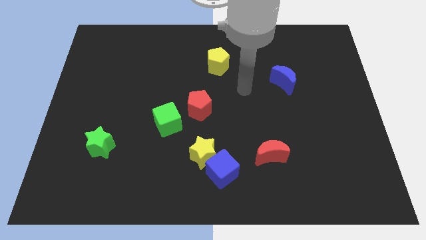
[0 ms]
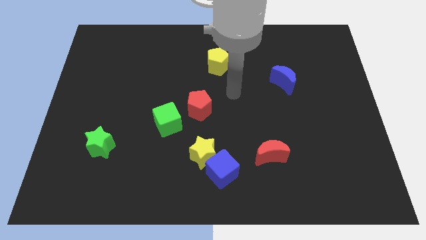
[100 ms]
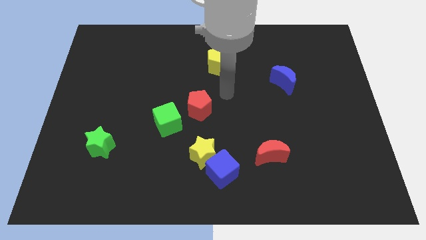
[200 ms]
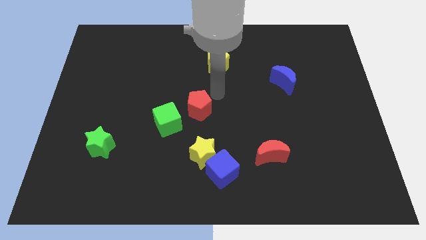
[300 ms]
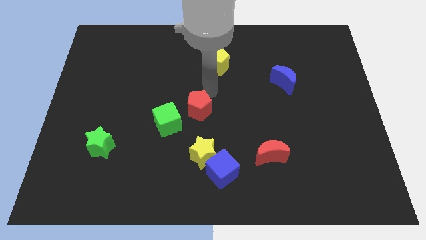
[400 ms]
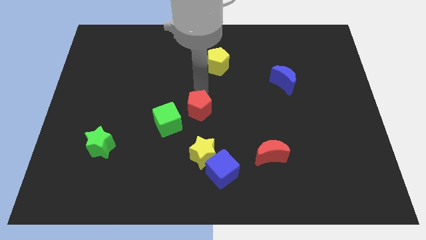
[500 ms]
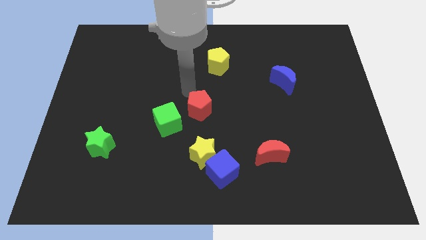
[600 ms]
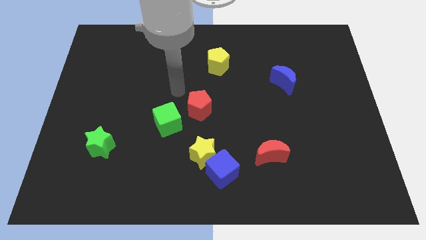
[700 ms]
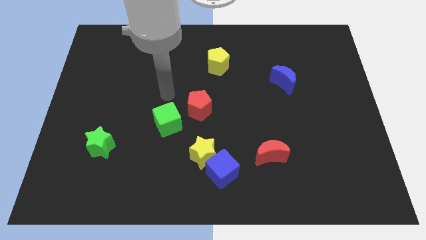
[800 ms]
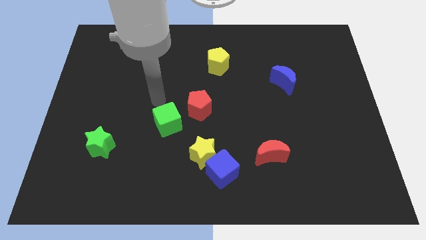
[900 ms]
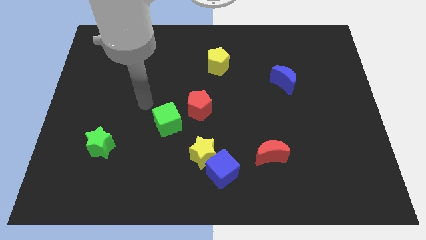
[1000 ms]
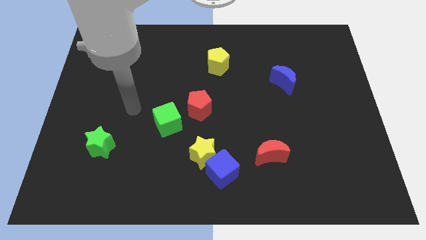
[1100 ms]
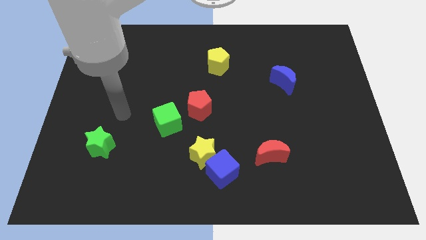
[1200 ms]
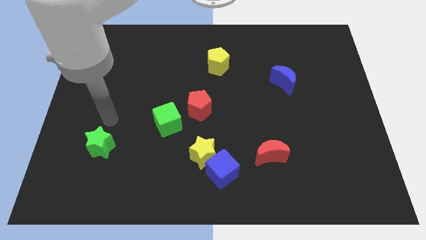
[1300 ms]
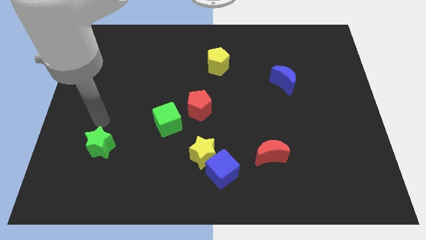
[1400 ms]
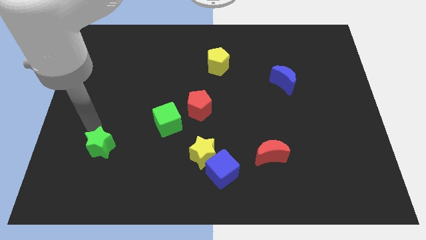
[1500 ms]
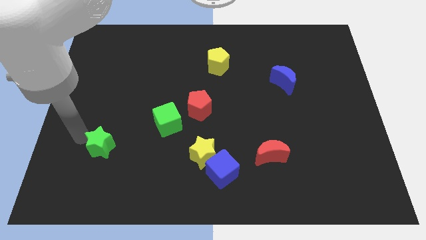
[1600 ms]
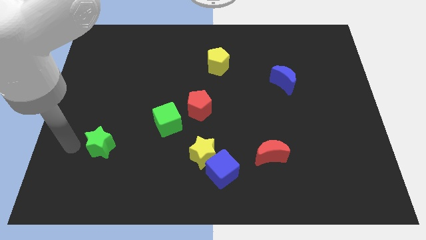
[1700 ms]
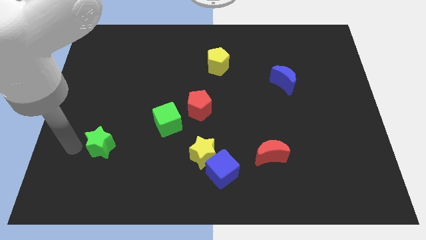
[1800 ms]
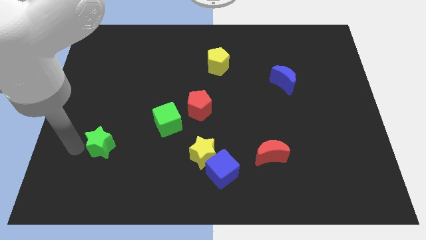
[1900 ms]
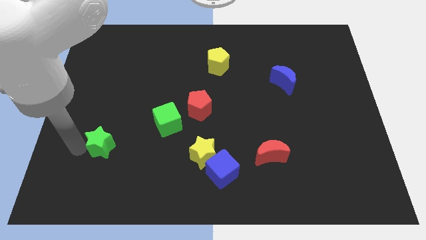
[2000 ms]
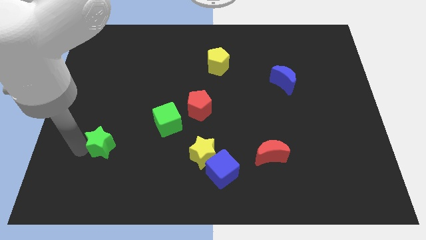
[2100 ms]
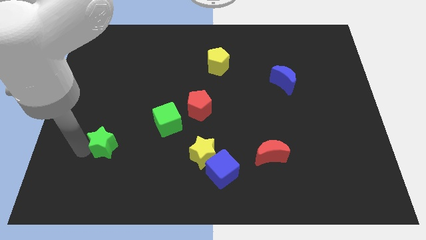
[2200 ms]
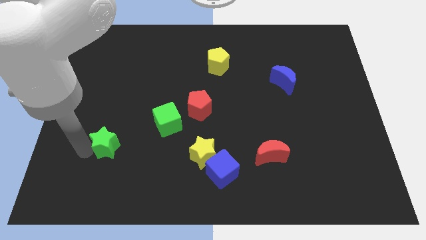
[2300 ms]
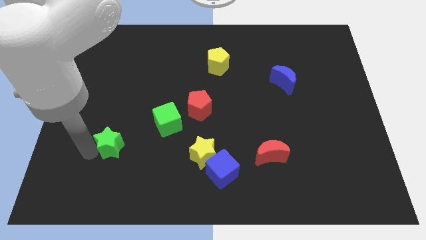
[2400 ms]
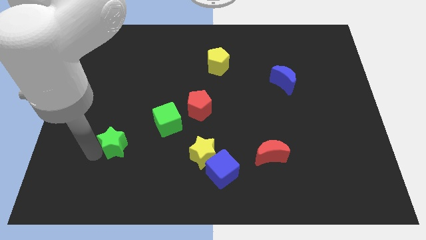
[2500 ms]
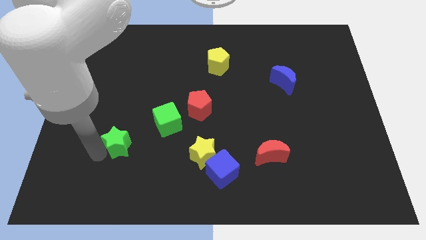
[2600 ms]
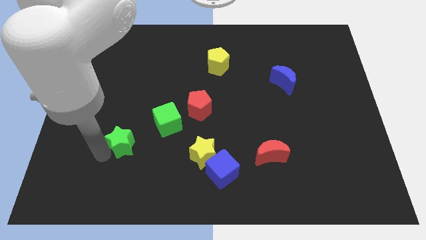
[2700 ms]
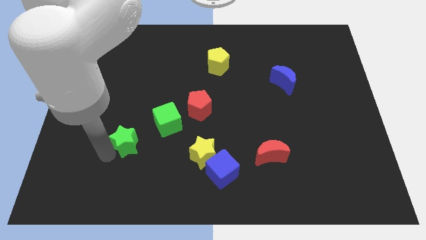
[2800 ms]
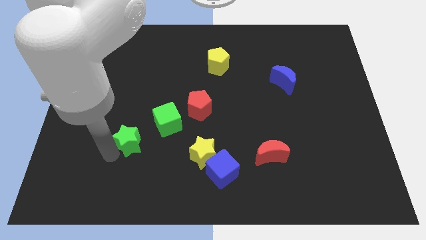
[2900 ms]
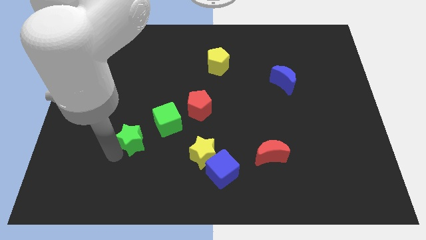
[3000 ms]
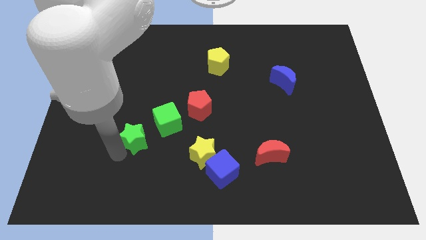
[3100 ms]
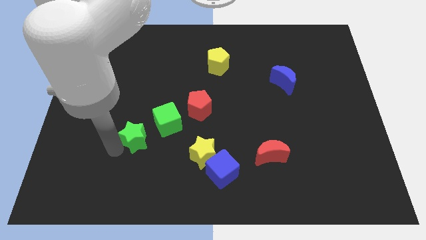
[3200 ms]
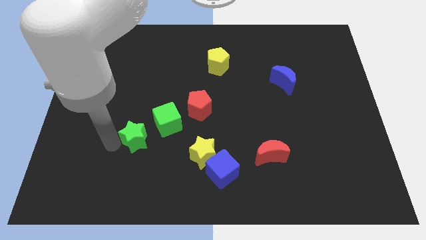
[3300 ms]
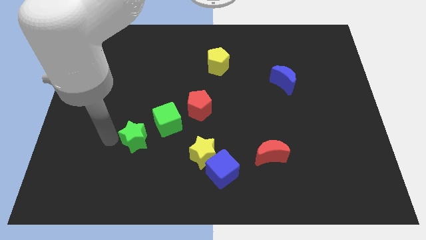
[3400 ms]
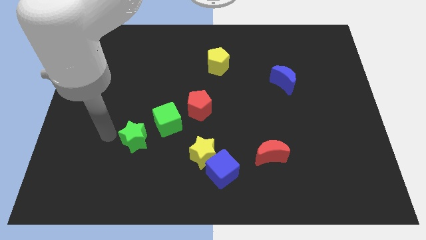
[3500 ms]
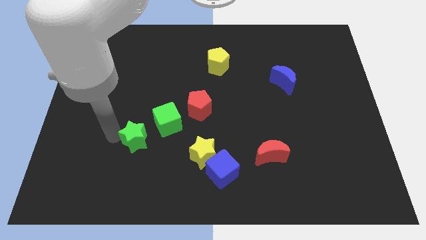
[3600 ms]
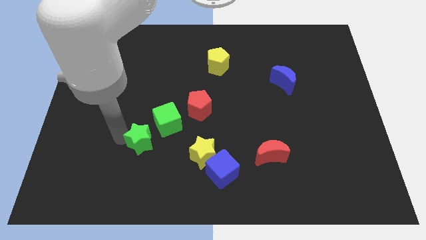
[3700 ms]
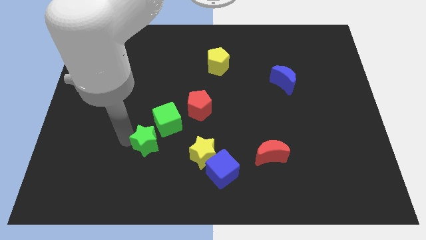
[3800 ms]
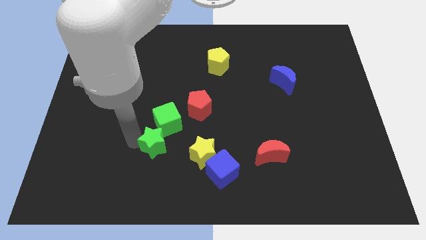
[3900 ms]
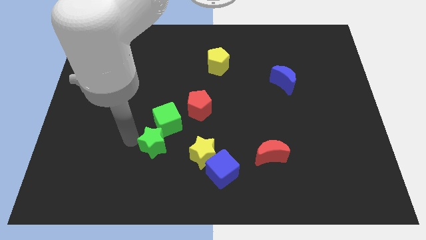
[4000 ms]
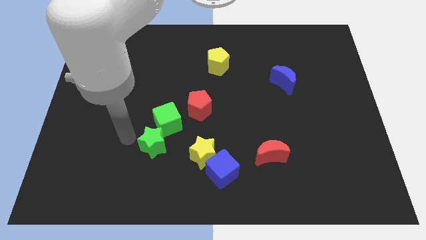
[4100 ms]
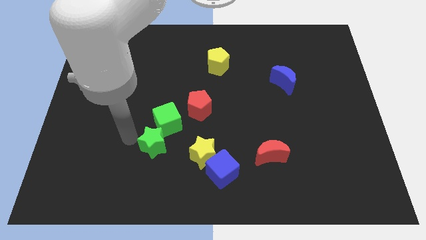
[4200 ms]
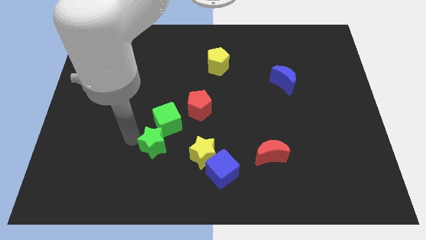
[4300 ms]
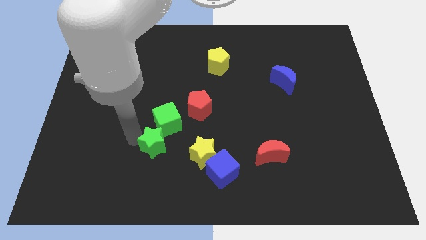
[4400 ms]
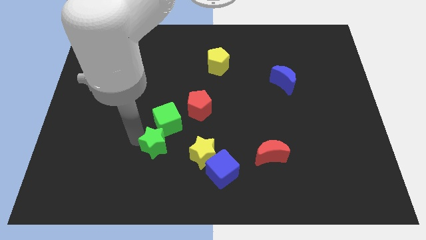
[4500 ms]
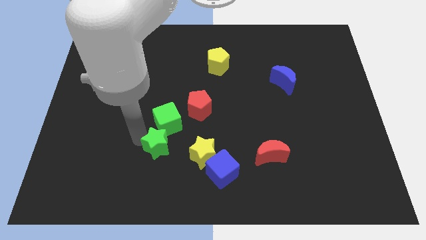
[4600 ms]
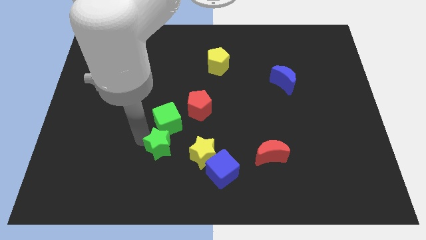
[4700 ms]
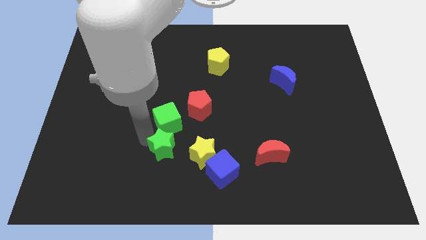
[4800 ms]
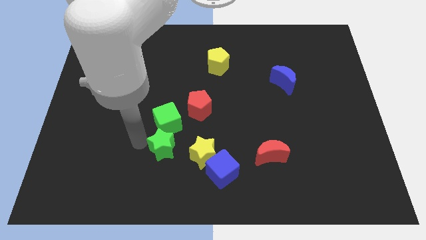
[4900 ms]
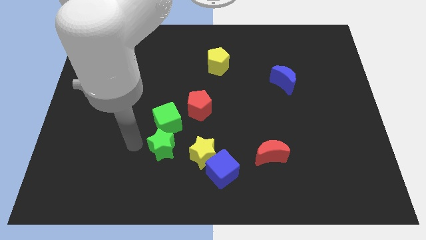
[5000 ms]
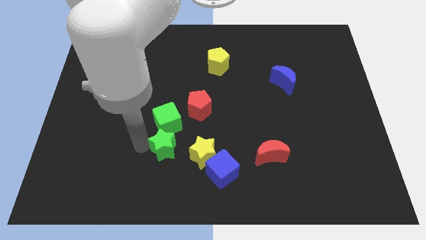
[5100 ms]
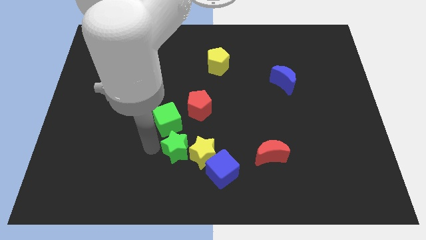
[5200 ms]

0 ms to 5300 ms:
put the green star towards the yellow star

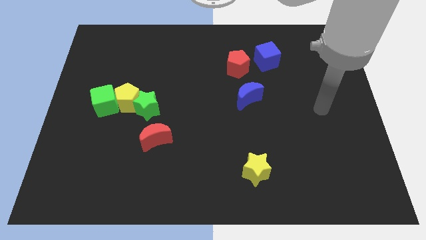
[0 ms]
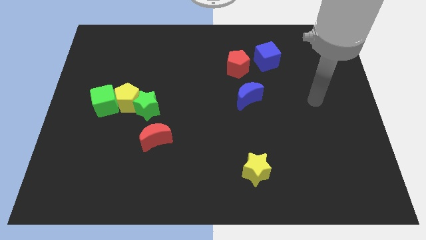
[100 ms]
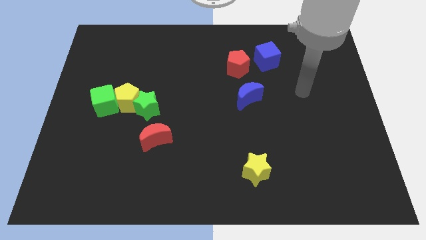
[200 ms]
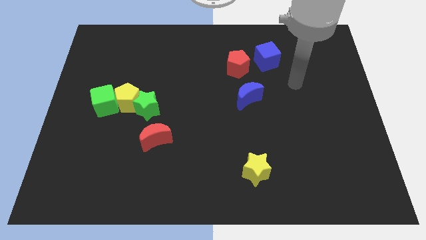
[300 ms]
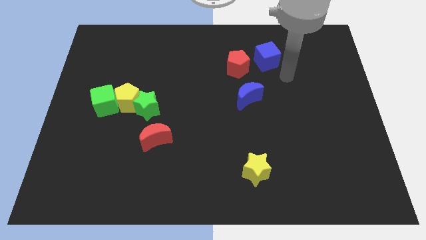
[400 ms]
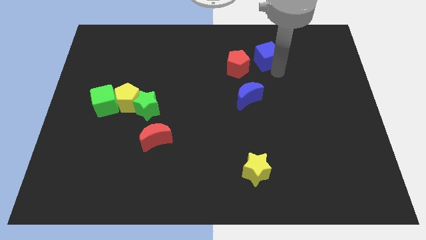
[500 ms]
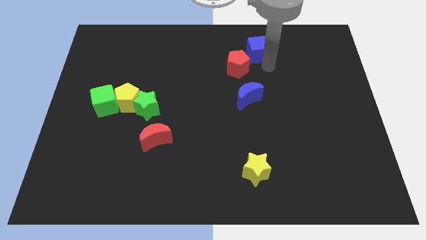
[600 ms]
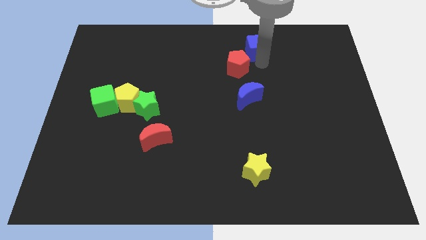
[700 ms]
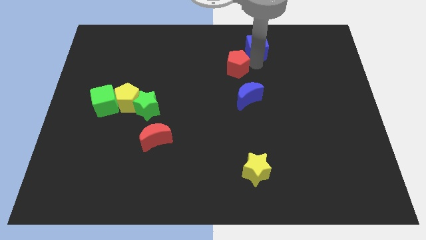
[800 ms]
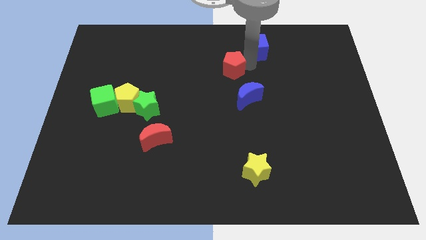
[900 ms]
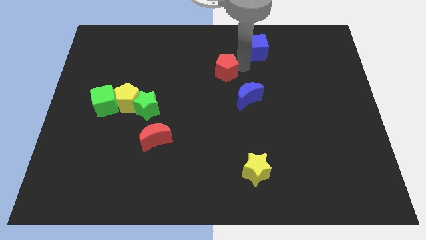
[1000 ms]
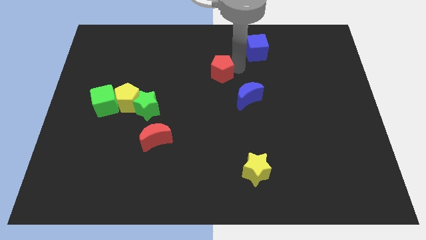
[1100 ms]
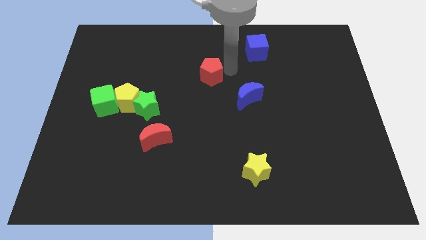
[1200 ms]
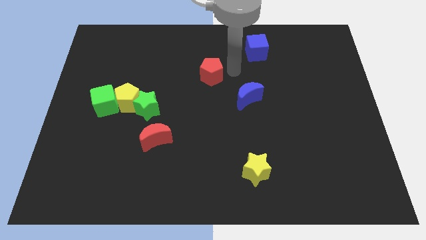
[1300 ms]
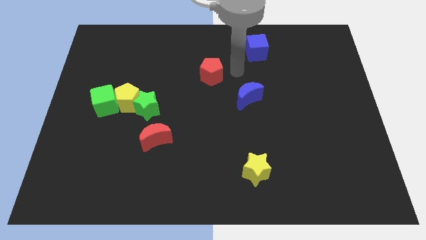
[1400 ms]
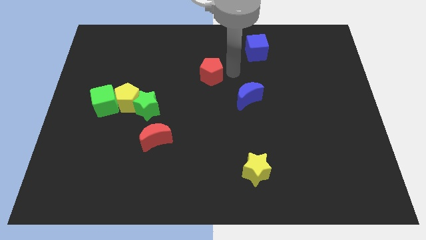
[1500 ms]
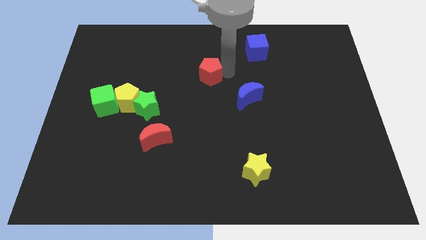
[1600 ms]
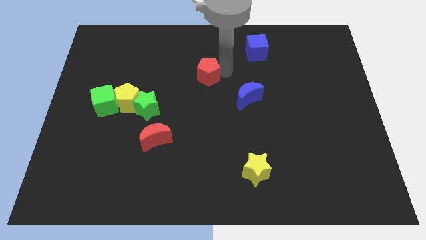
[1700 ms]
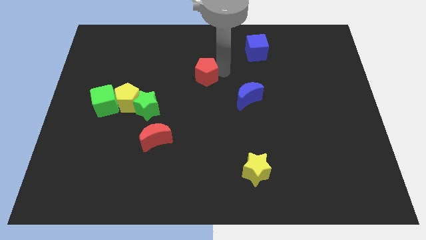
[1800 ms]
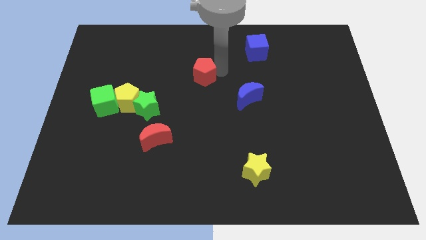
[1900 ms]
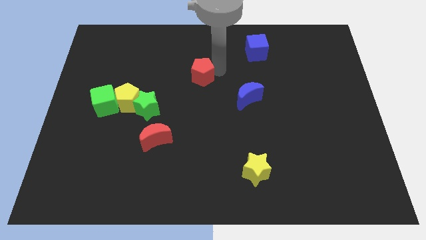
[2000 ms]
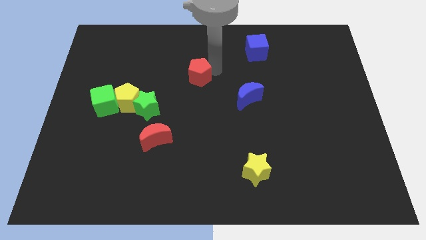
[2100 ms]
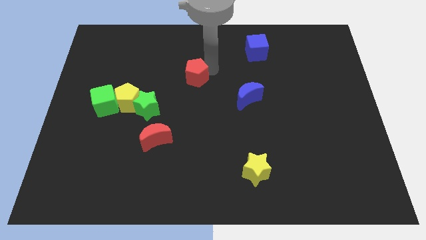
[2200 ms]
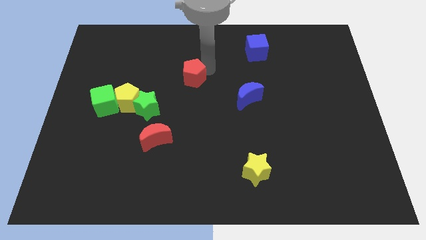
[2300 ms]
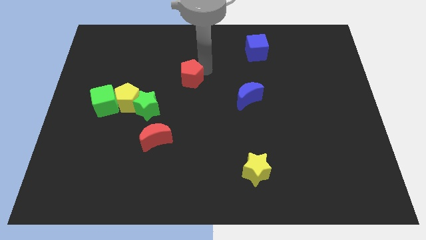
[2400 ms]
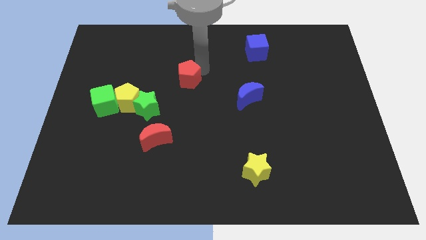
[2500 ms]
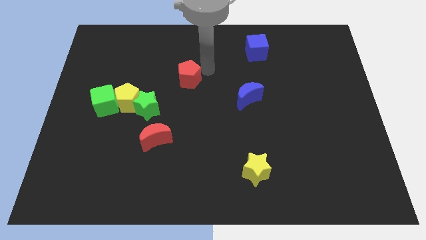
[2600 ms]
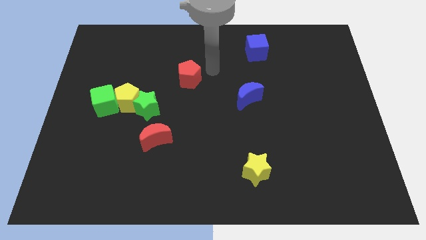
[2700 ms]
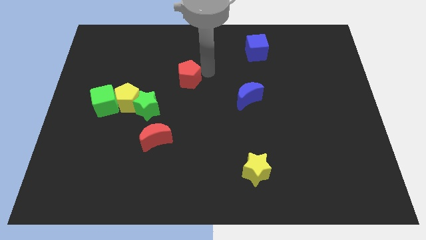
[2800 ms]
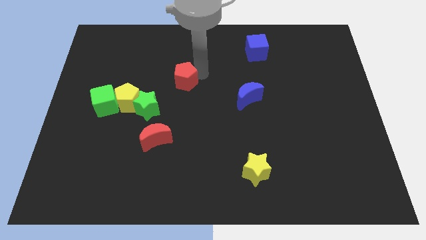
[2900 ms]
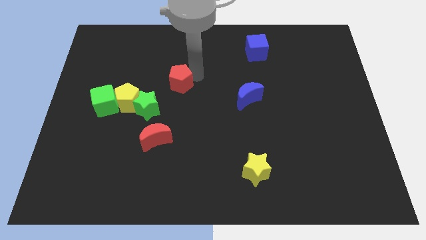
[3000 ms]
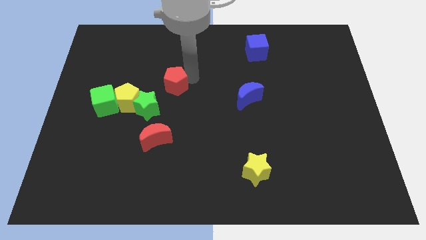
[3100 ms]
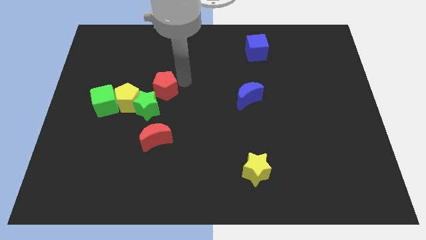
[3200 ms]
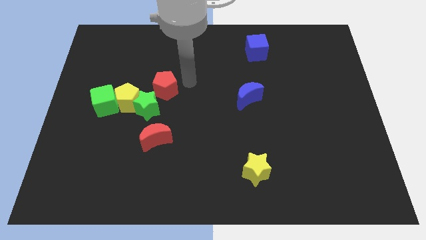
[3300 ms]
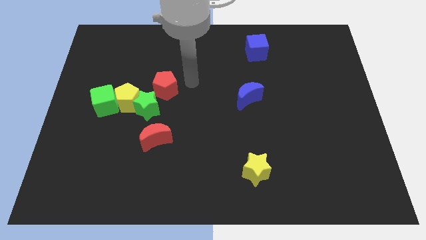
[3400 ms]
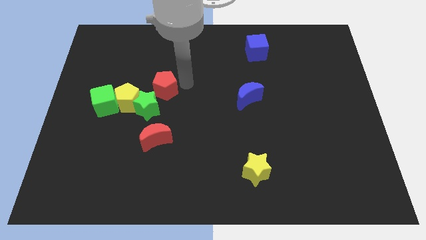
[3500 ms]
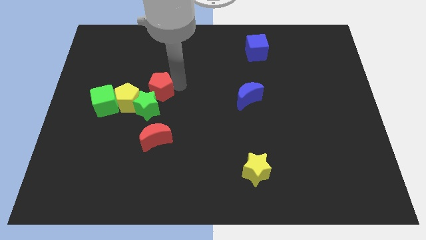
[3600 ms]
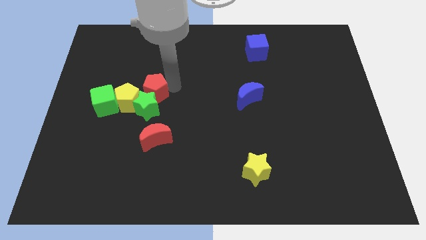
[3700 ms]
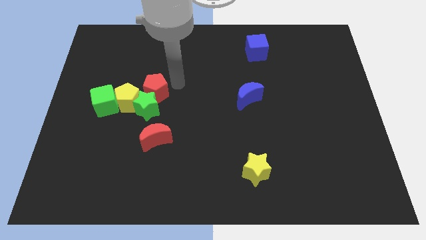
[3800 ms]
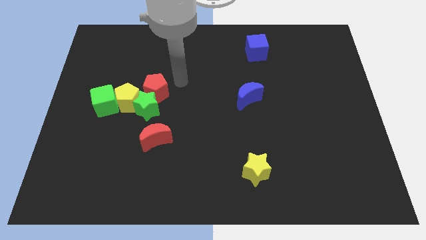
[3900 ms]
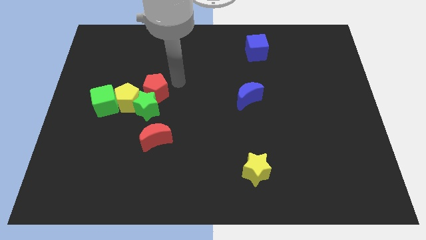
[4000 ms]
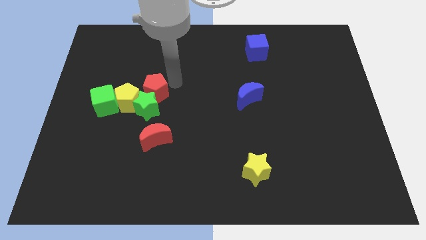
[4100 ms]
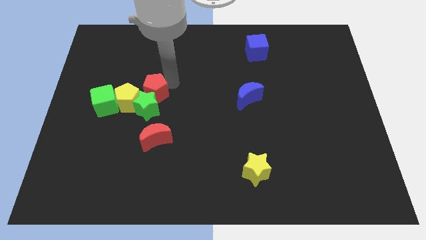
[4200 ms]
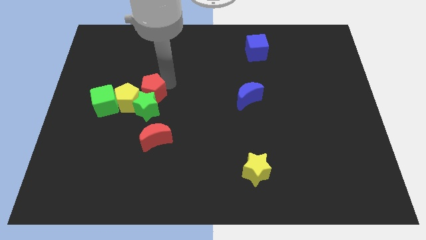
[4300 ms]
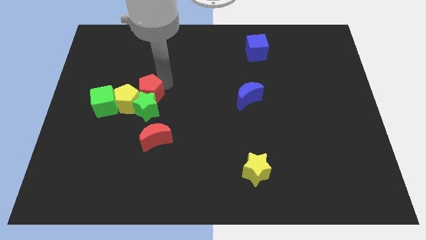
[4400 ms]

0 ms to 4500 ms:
put the red pentagon towards the yellow pentagon
